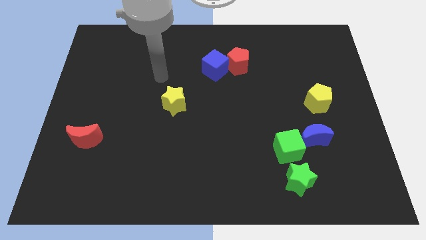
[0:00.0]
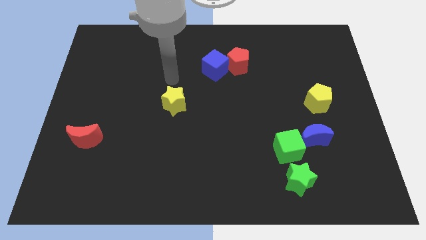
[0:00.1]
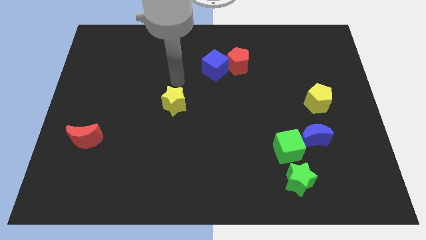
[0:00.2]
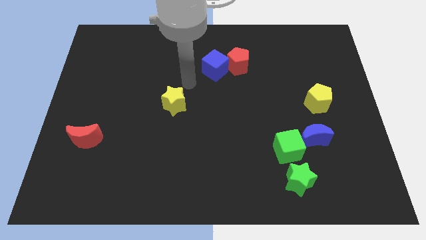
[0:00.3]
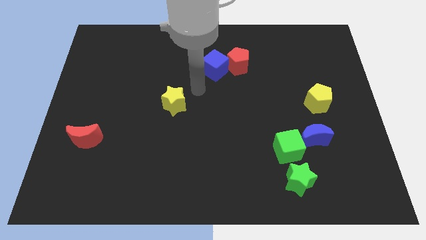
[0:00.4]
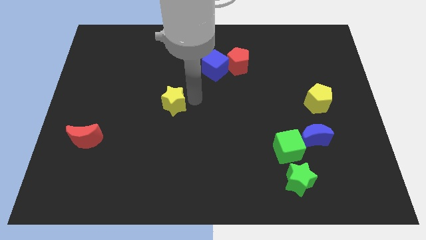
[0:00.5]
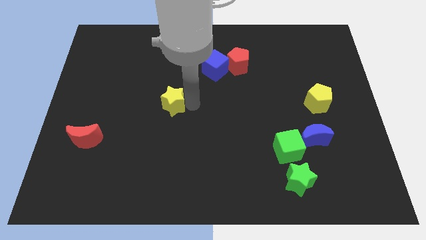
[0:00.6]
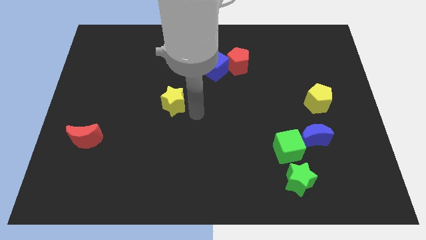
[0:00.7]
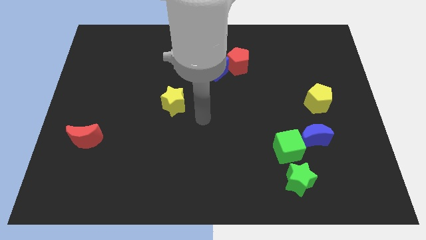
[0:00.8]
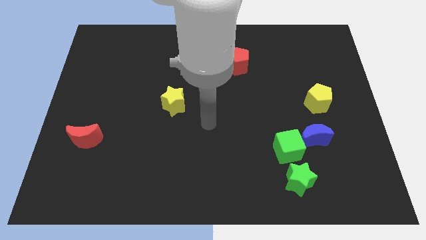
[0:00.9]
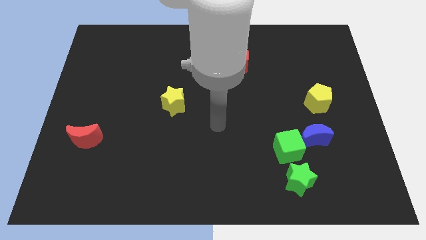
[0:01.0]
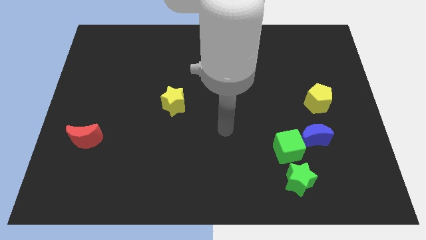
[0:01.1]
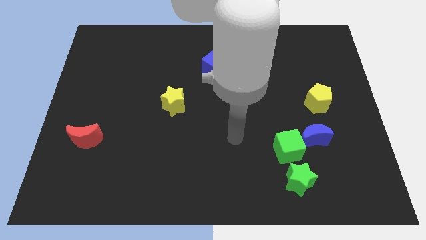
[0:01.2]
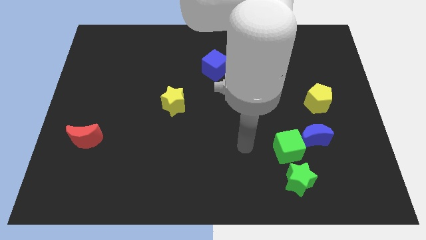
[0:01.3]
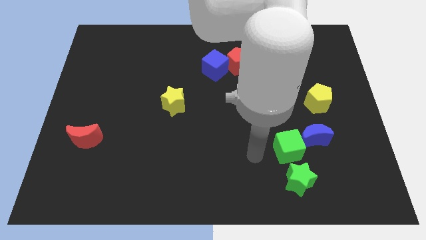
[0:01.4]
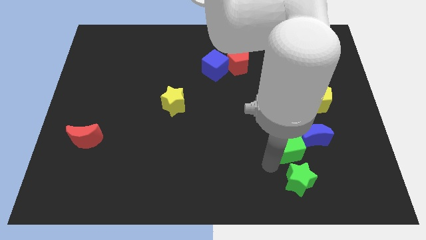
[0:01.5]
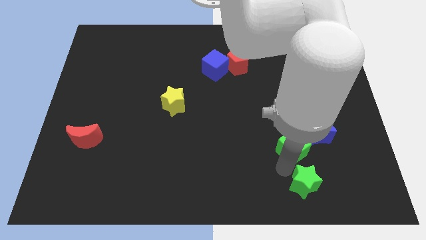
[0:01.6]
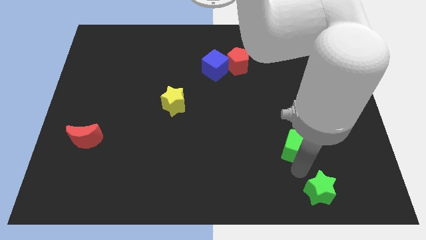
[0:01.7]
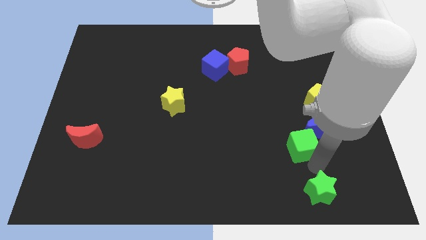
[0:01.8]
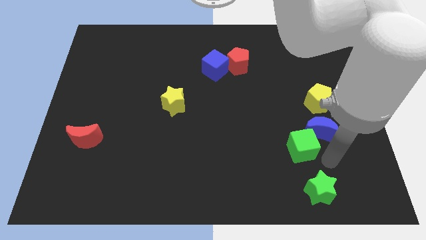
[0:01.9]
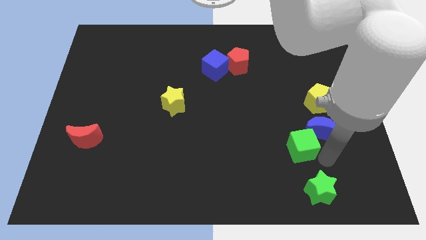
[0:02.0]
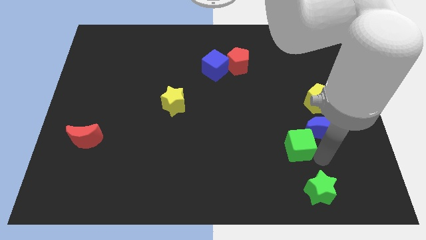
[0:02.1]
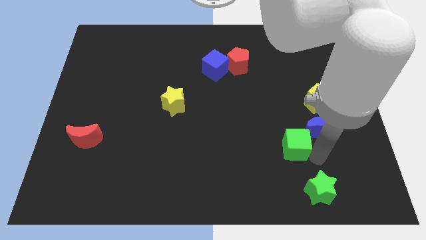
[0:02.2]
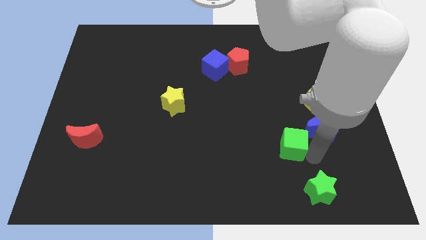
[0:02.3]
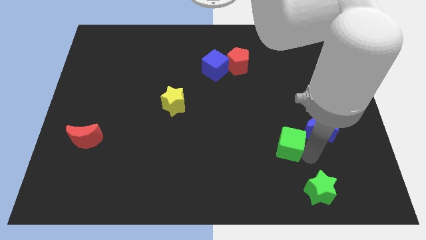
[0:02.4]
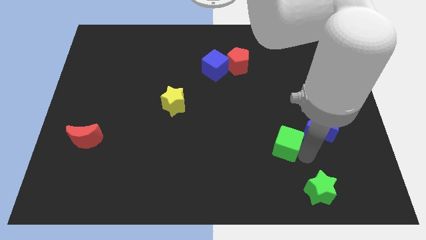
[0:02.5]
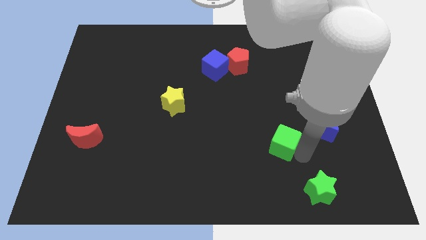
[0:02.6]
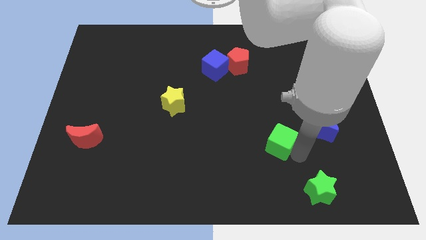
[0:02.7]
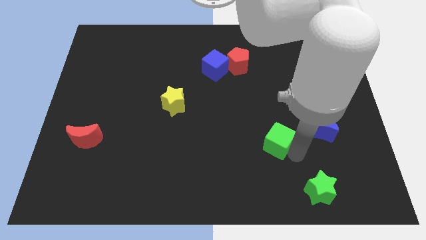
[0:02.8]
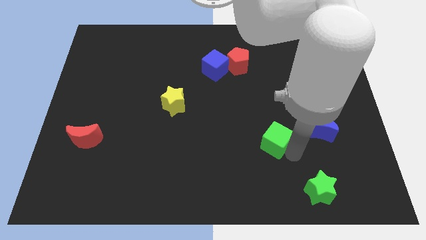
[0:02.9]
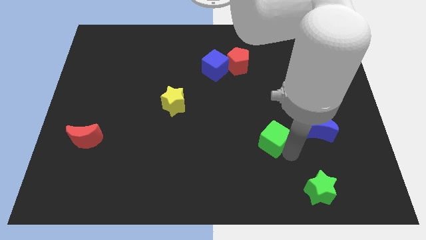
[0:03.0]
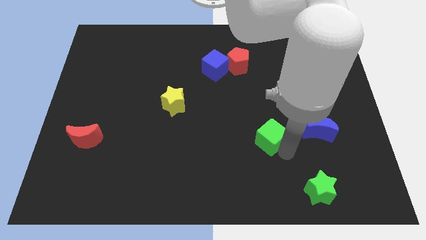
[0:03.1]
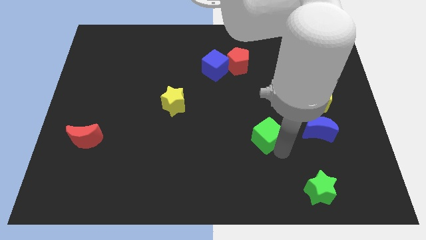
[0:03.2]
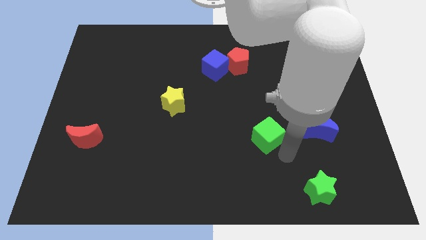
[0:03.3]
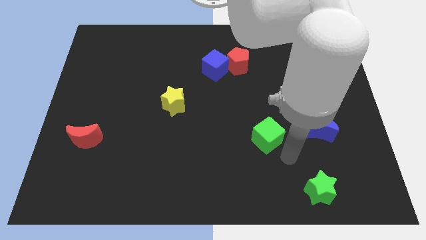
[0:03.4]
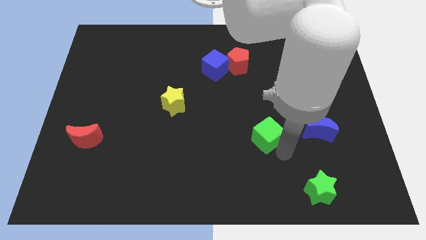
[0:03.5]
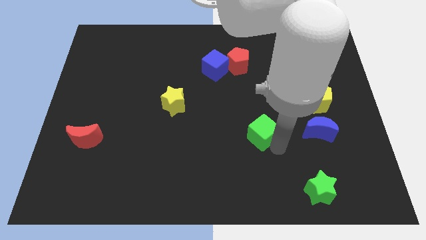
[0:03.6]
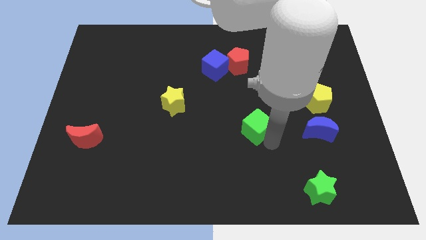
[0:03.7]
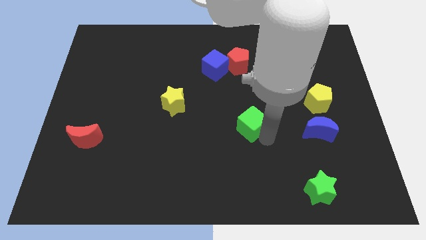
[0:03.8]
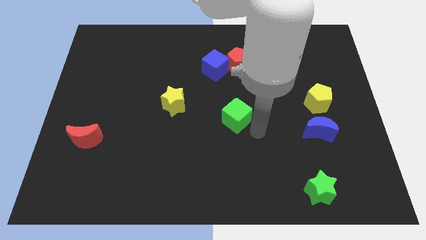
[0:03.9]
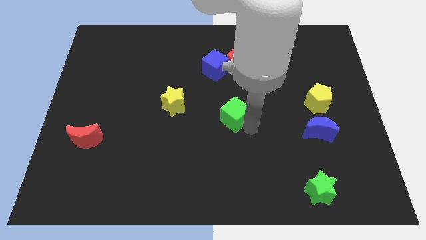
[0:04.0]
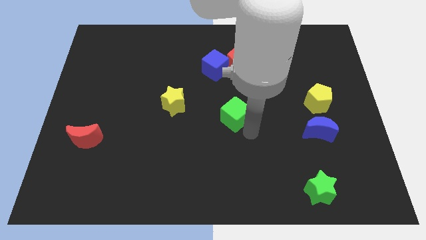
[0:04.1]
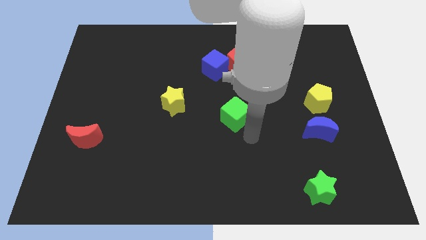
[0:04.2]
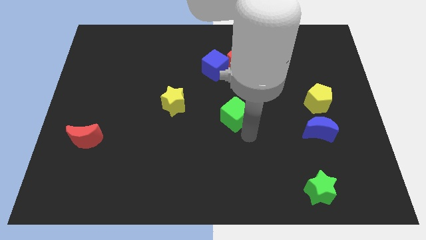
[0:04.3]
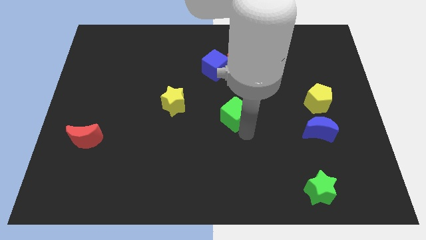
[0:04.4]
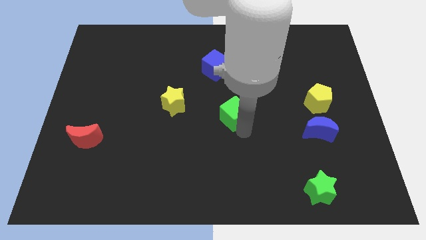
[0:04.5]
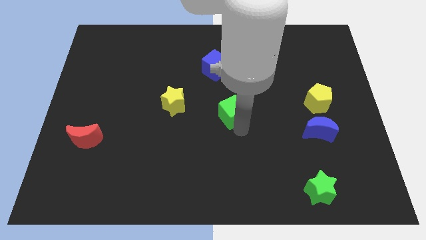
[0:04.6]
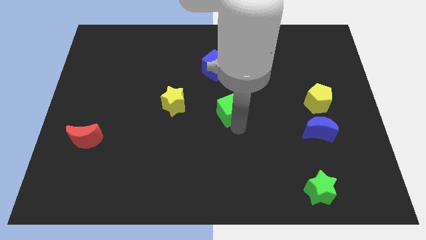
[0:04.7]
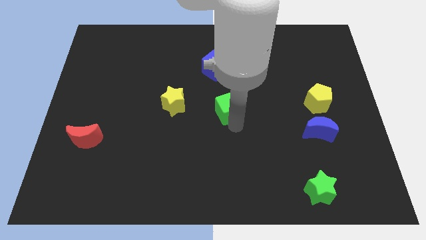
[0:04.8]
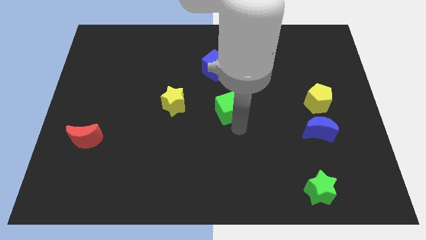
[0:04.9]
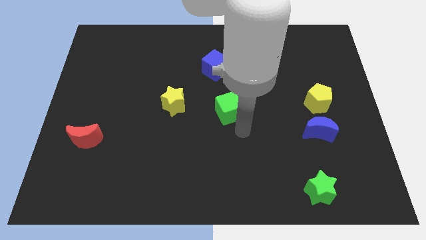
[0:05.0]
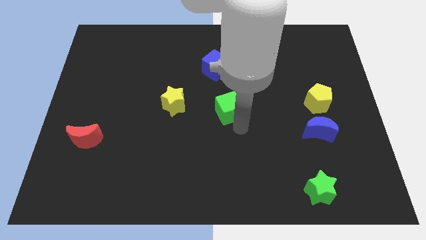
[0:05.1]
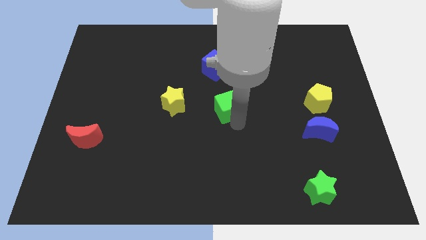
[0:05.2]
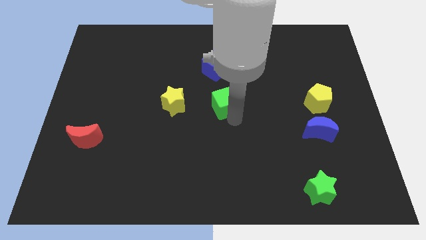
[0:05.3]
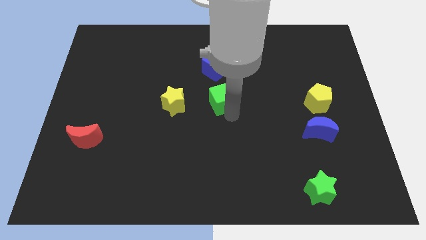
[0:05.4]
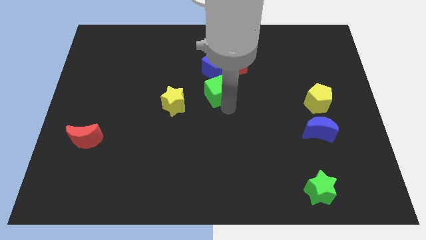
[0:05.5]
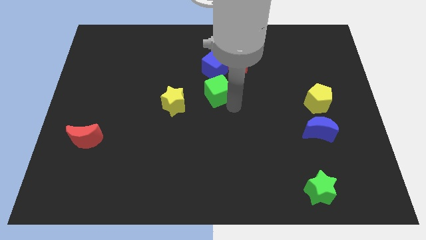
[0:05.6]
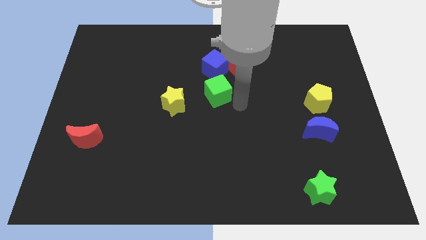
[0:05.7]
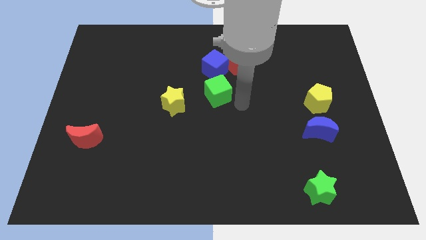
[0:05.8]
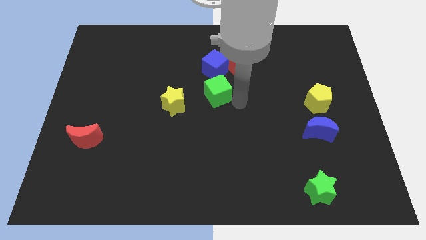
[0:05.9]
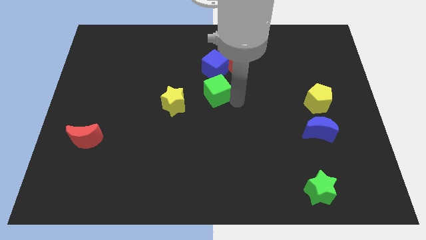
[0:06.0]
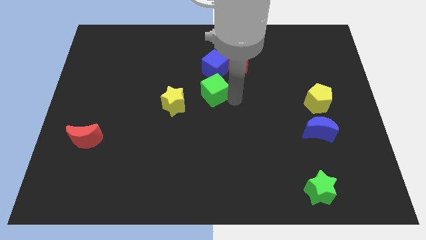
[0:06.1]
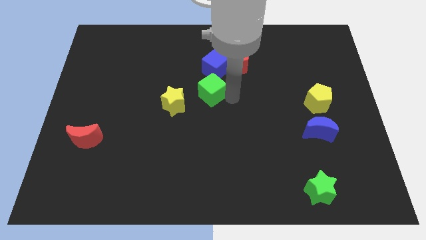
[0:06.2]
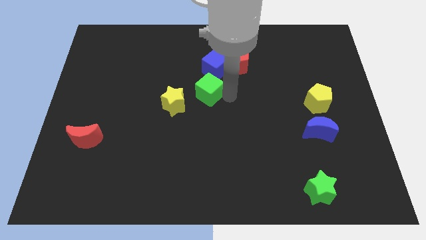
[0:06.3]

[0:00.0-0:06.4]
slide the green cube to the bottom left side of the blue cube
